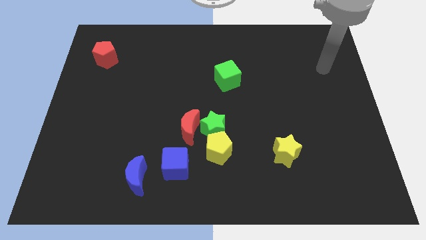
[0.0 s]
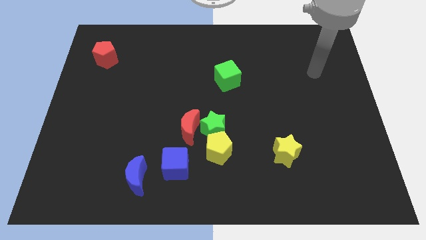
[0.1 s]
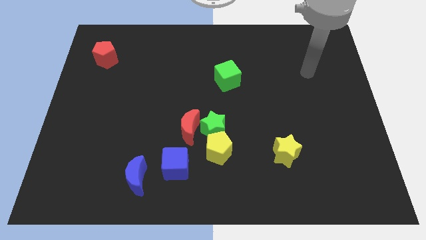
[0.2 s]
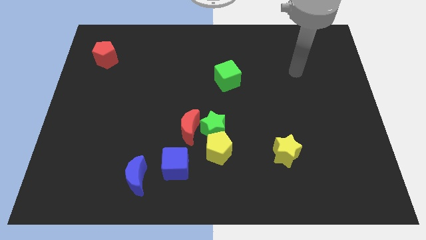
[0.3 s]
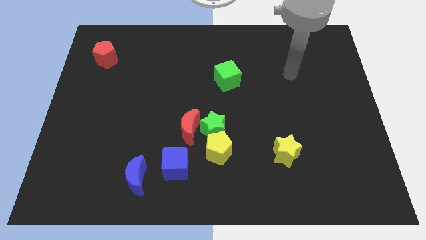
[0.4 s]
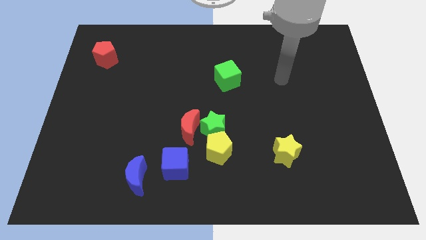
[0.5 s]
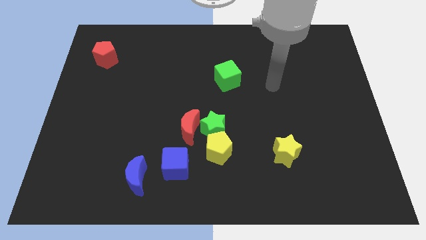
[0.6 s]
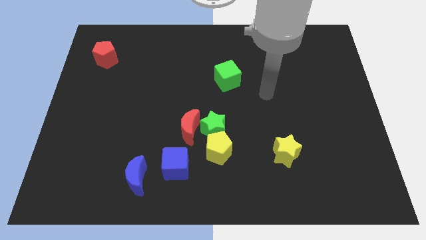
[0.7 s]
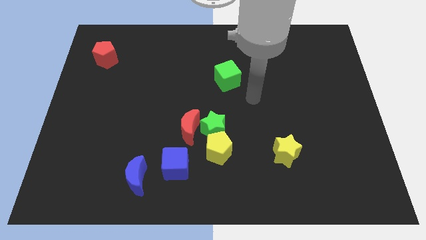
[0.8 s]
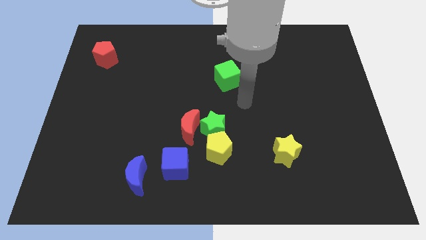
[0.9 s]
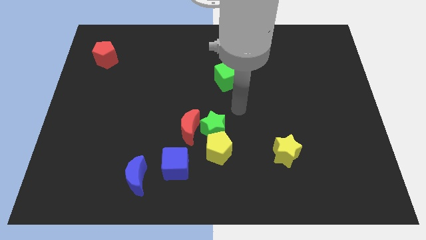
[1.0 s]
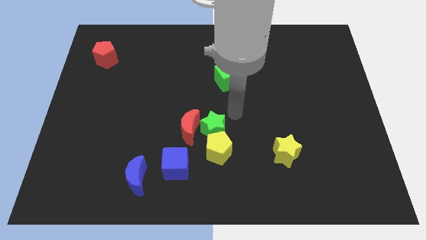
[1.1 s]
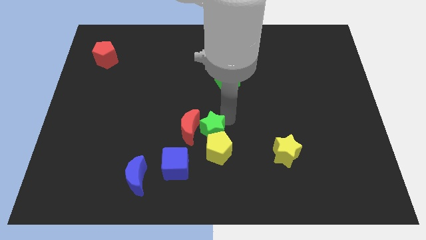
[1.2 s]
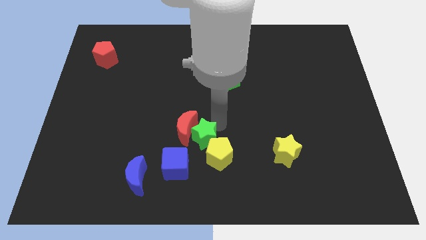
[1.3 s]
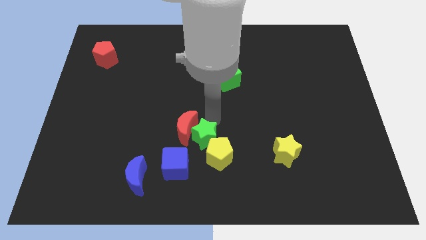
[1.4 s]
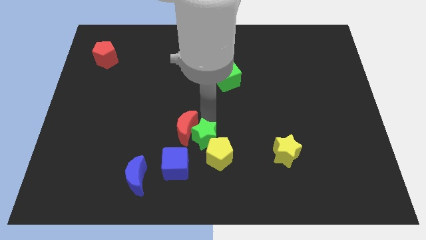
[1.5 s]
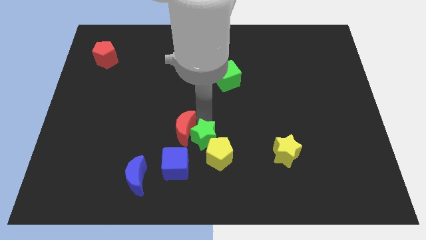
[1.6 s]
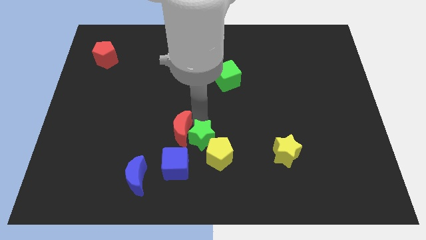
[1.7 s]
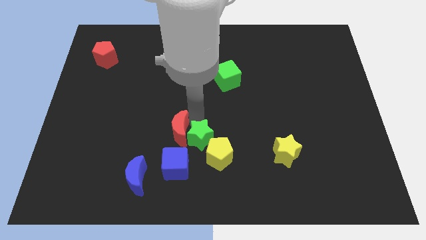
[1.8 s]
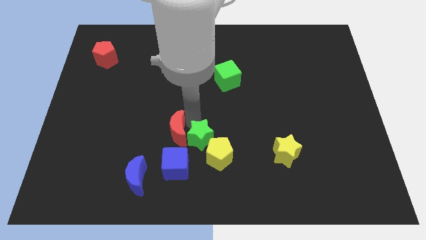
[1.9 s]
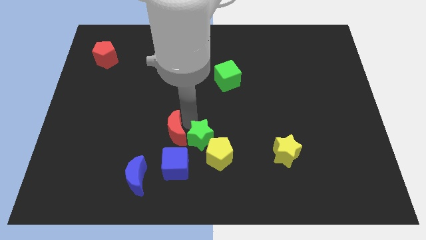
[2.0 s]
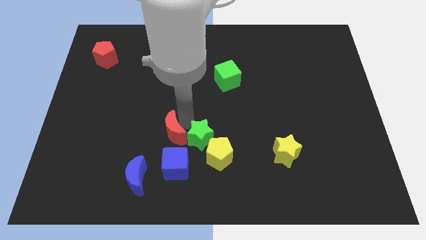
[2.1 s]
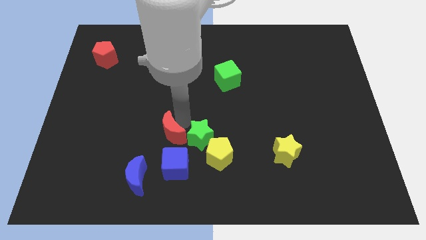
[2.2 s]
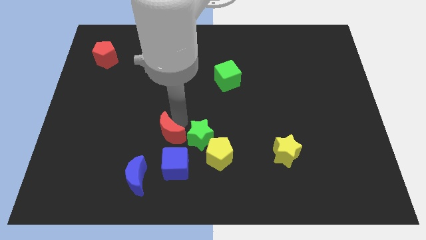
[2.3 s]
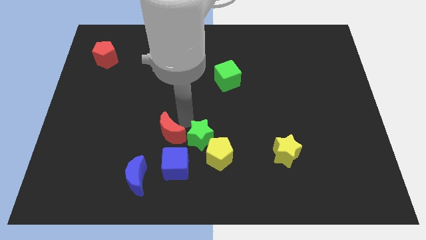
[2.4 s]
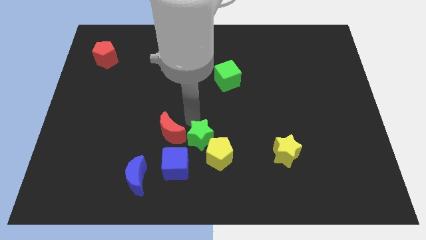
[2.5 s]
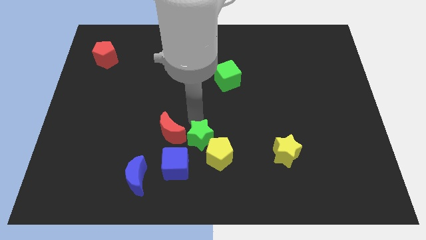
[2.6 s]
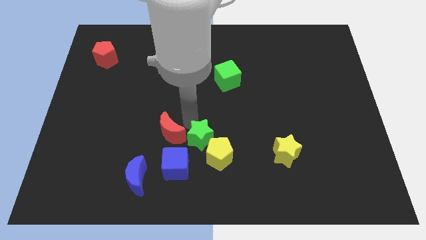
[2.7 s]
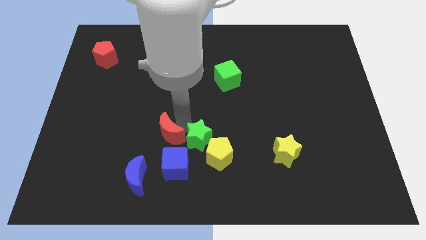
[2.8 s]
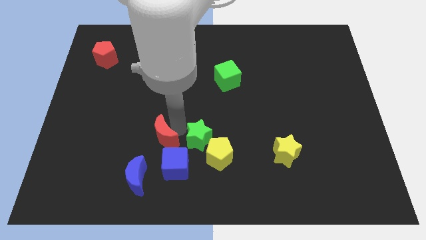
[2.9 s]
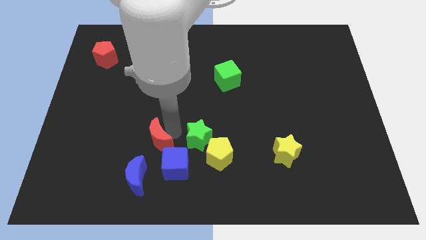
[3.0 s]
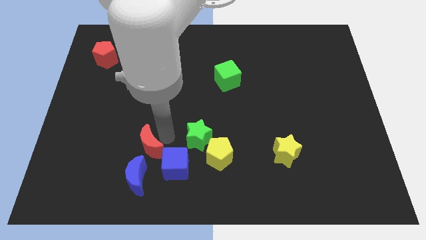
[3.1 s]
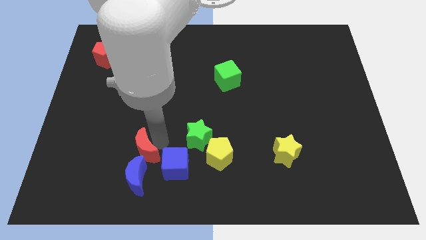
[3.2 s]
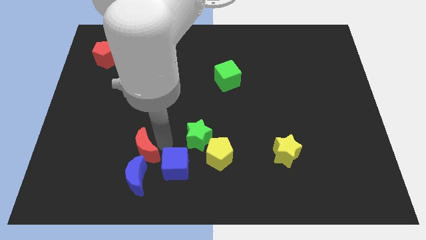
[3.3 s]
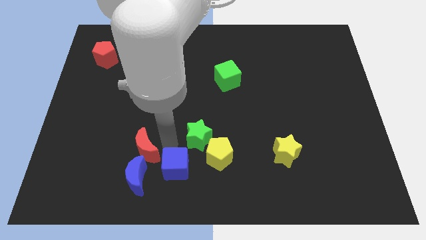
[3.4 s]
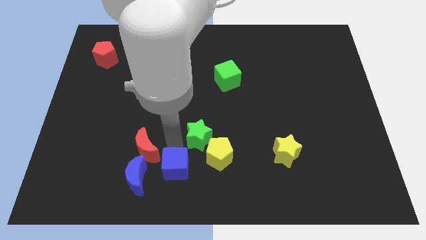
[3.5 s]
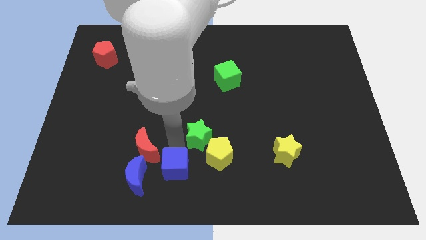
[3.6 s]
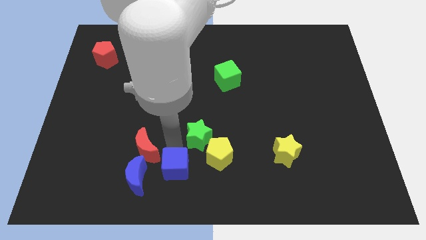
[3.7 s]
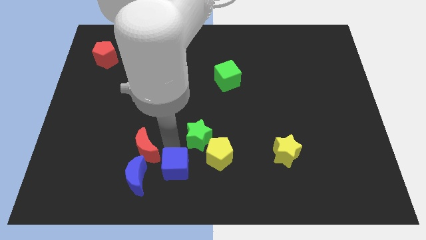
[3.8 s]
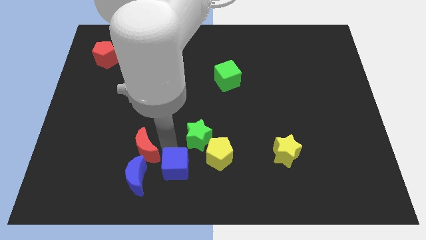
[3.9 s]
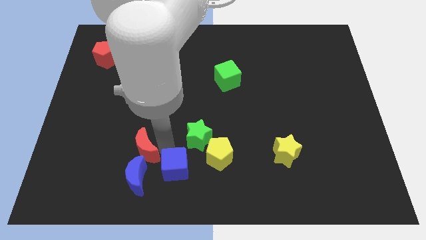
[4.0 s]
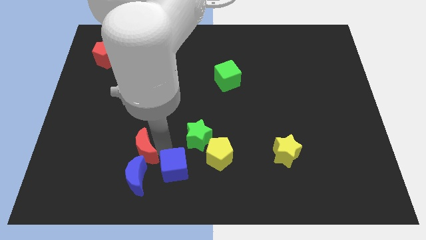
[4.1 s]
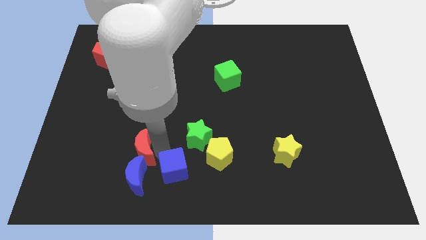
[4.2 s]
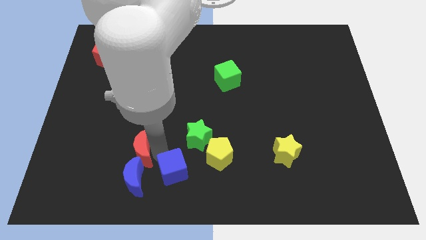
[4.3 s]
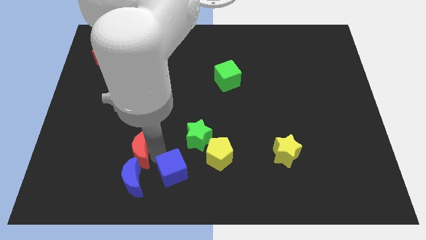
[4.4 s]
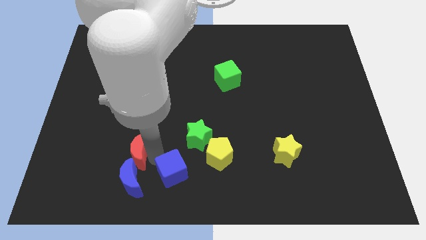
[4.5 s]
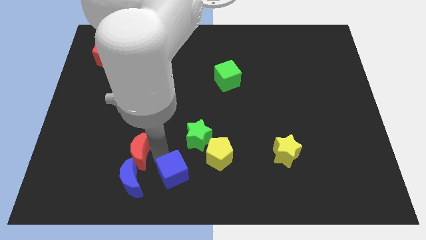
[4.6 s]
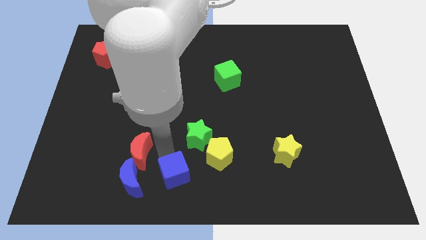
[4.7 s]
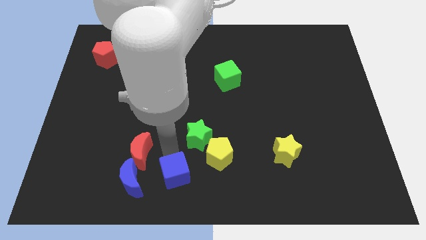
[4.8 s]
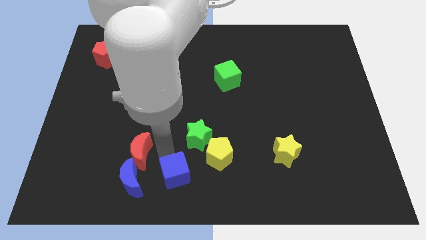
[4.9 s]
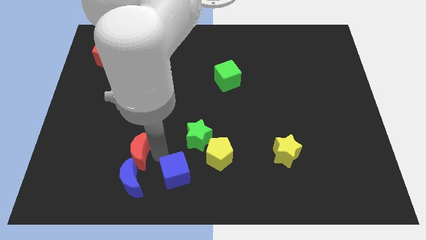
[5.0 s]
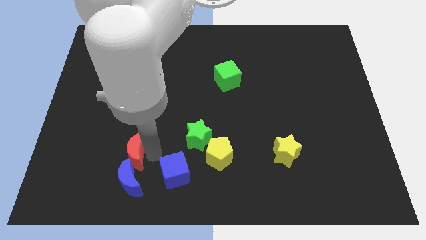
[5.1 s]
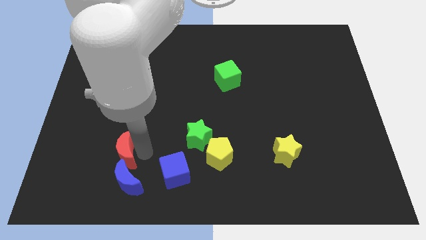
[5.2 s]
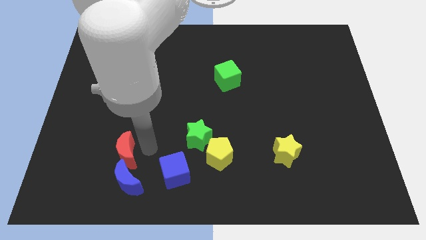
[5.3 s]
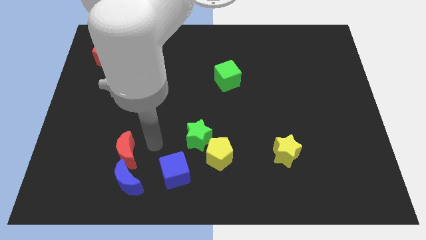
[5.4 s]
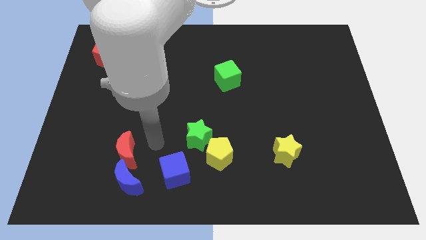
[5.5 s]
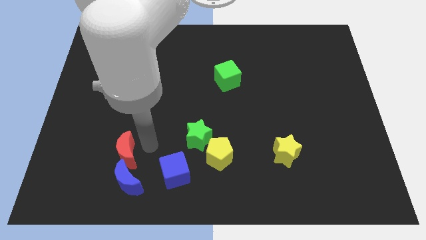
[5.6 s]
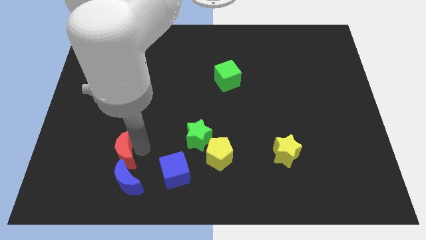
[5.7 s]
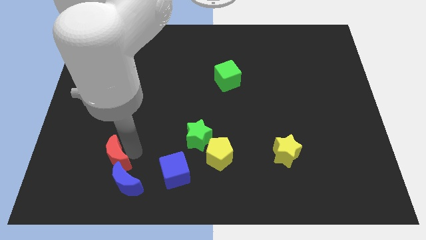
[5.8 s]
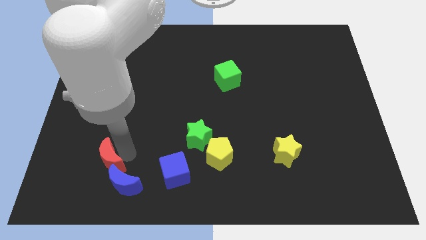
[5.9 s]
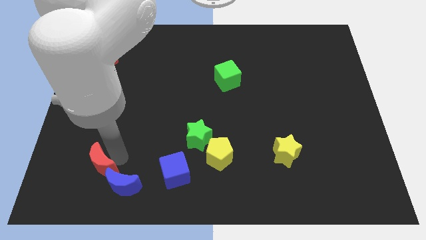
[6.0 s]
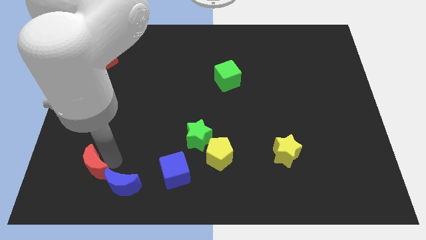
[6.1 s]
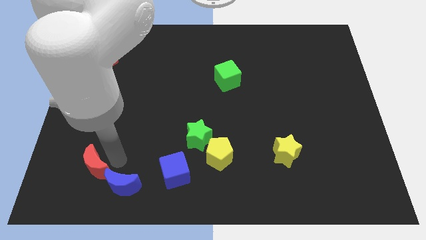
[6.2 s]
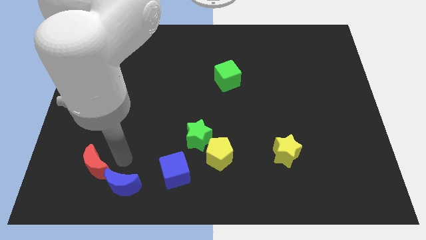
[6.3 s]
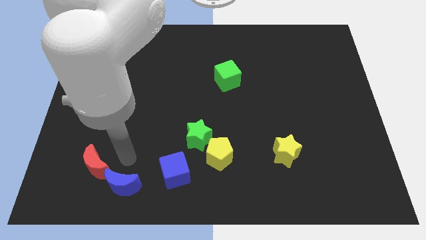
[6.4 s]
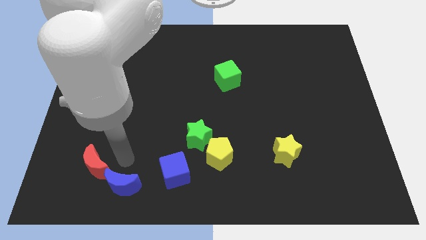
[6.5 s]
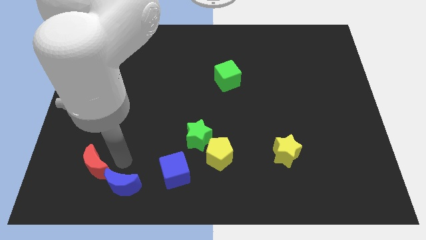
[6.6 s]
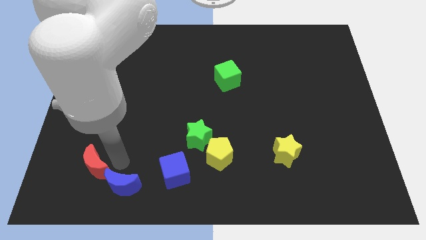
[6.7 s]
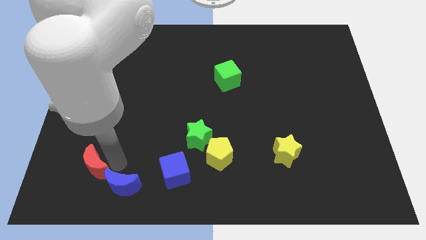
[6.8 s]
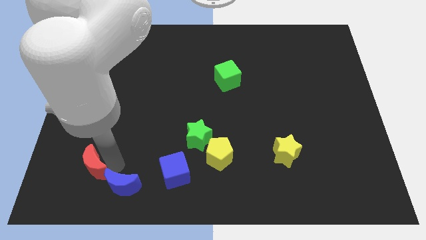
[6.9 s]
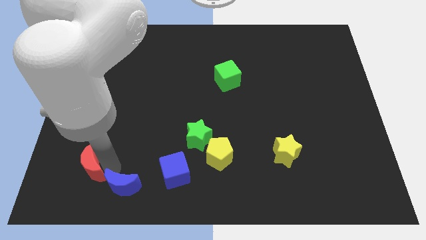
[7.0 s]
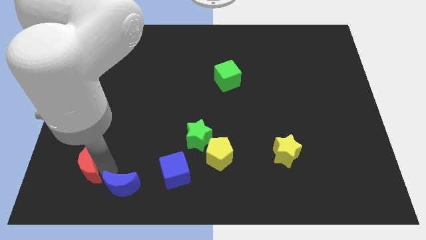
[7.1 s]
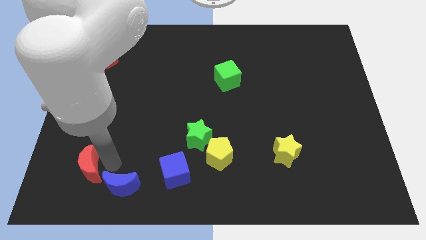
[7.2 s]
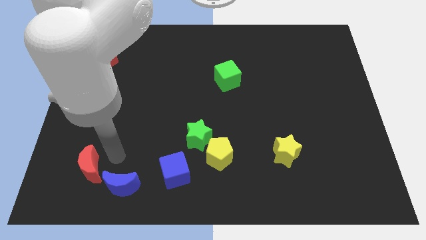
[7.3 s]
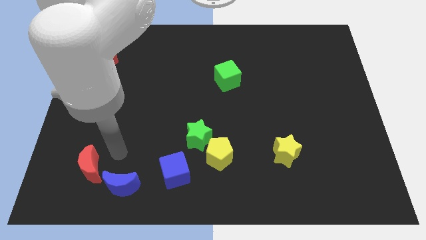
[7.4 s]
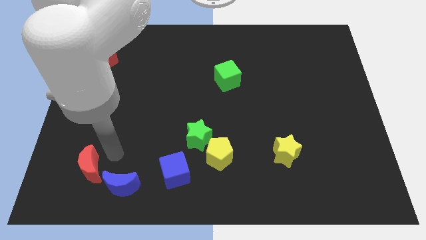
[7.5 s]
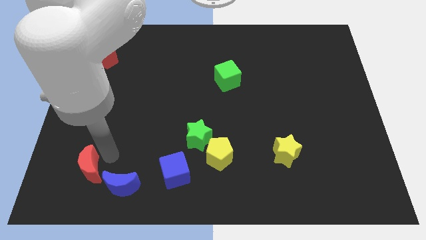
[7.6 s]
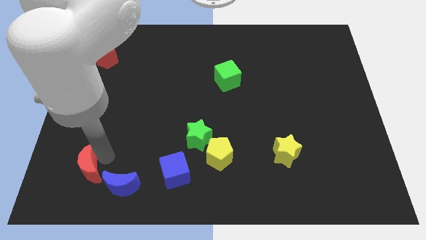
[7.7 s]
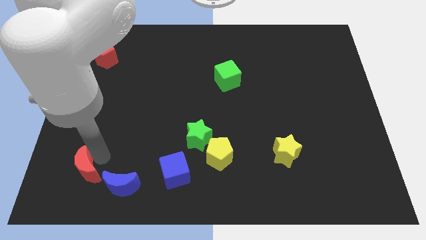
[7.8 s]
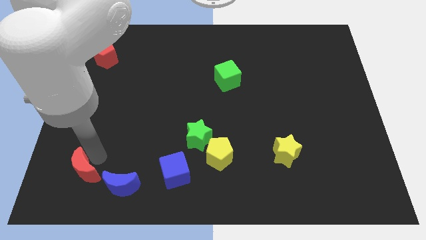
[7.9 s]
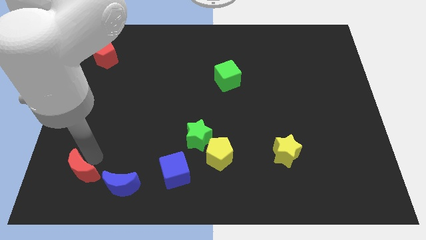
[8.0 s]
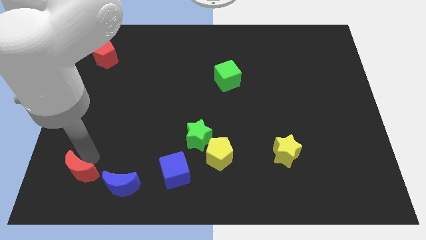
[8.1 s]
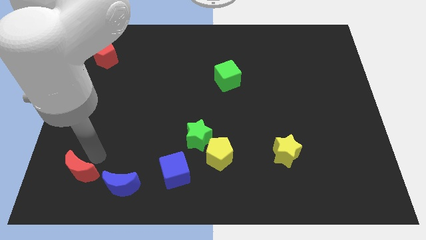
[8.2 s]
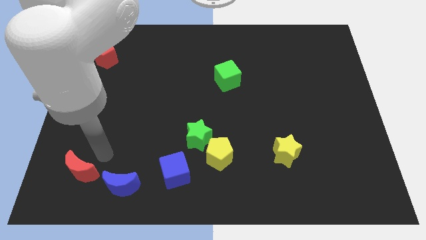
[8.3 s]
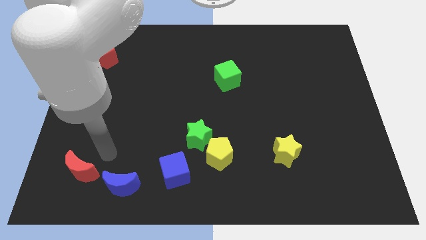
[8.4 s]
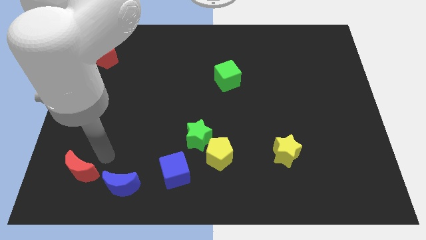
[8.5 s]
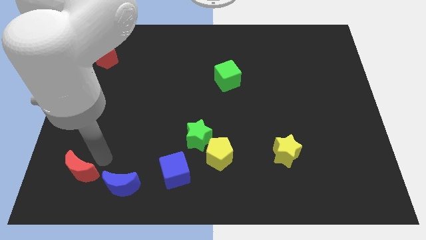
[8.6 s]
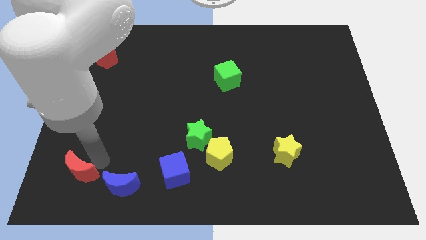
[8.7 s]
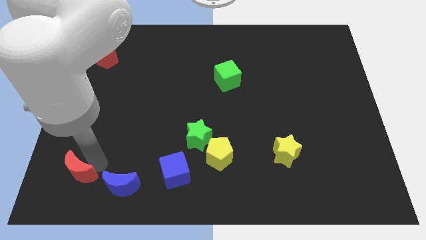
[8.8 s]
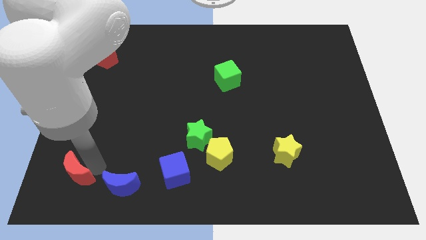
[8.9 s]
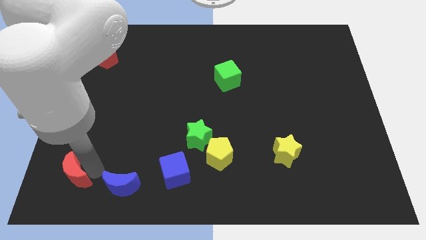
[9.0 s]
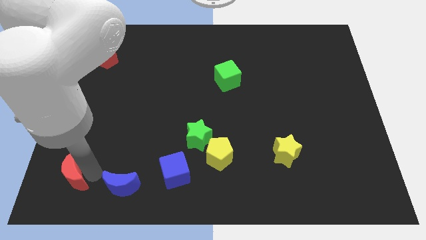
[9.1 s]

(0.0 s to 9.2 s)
slide the red moon to the bottom left corner
